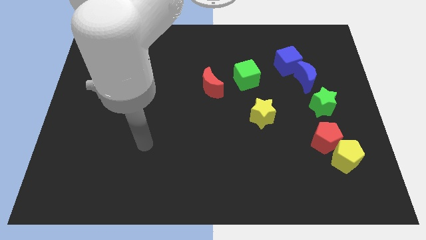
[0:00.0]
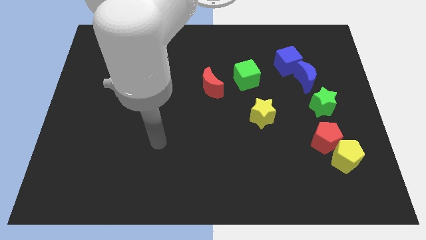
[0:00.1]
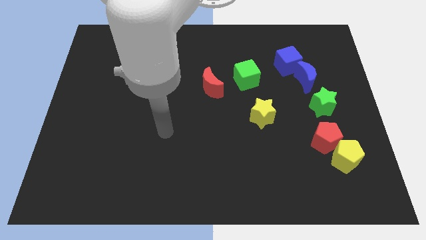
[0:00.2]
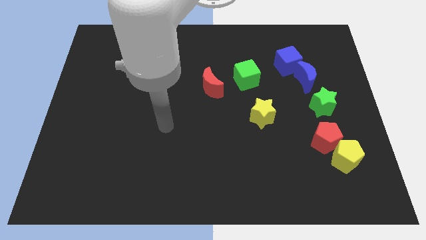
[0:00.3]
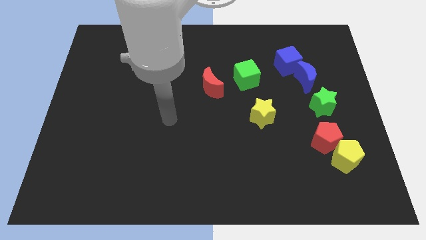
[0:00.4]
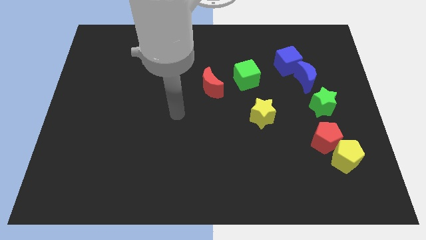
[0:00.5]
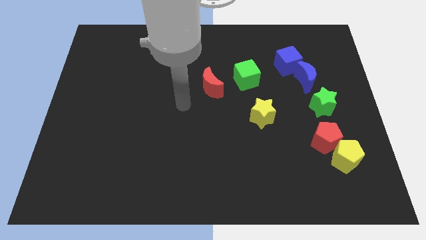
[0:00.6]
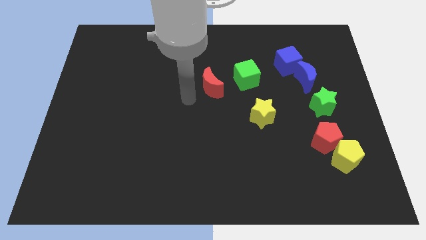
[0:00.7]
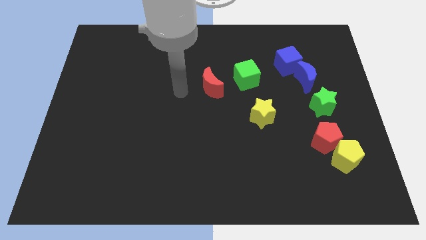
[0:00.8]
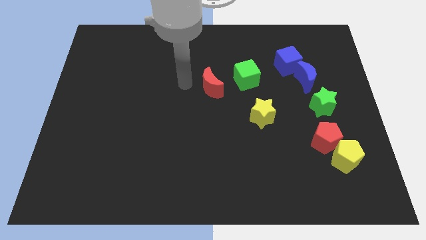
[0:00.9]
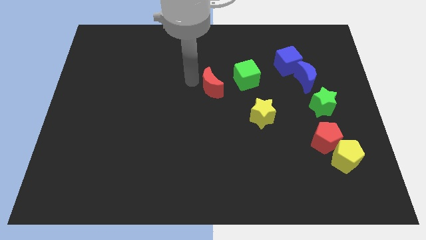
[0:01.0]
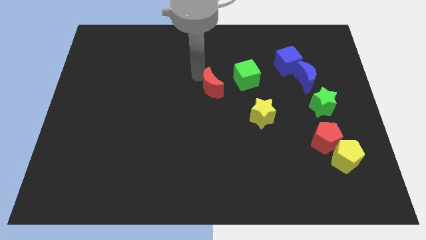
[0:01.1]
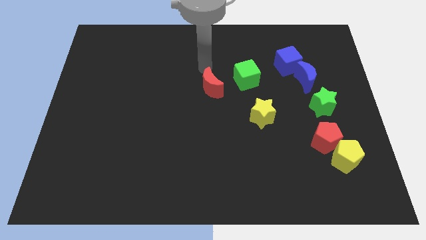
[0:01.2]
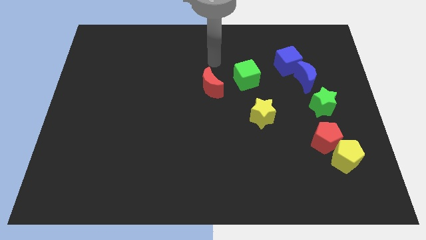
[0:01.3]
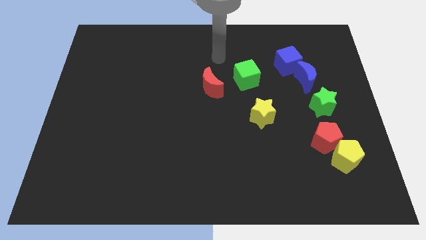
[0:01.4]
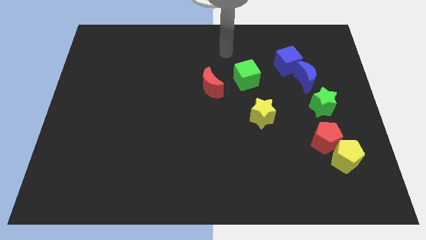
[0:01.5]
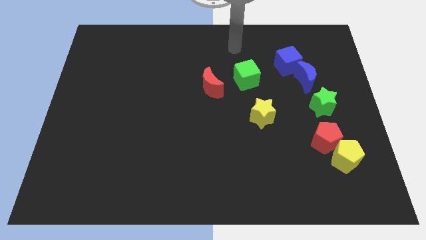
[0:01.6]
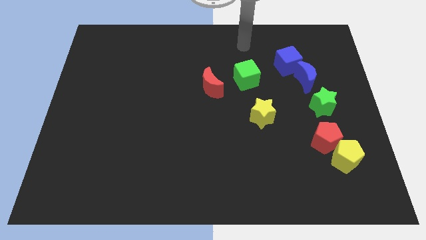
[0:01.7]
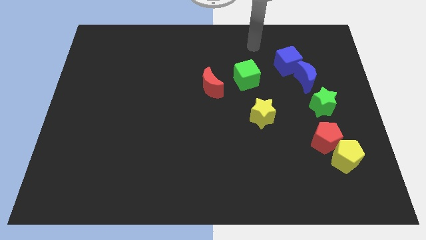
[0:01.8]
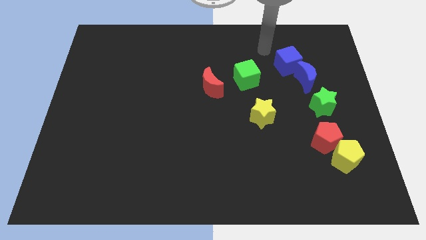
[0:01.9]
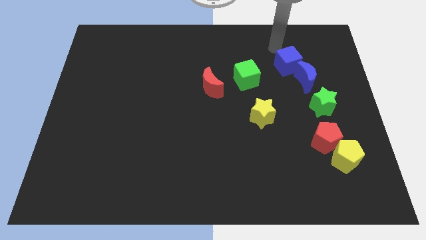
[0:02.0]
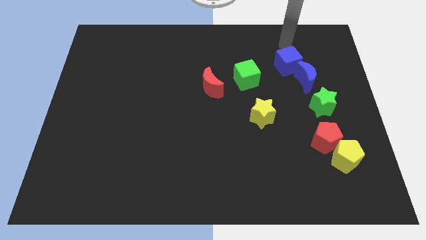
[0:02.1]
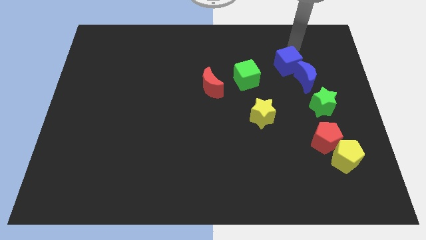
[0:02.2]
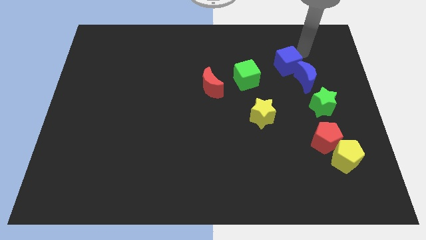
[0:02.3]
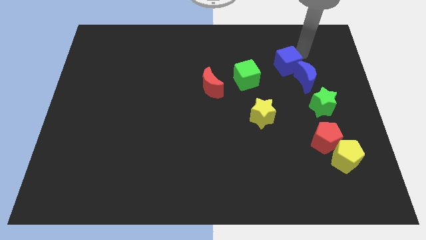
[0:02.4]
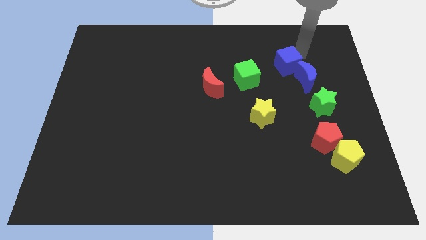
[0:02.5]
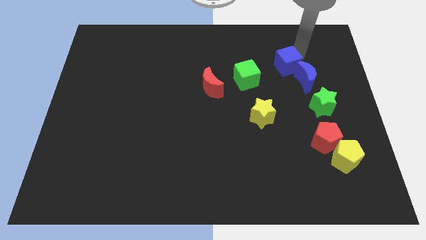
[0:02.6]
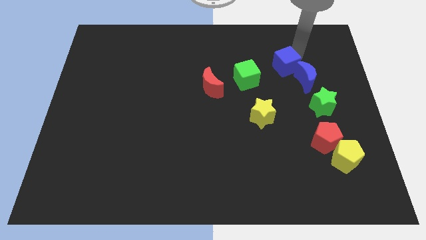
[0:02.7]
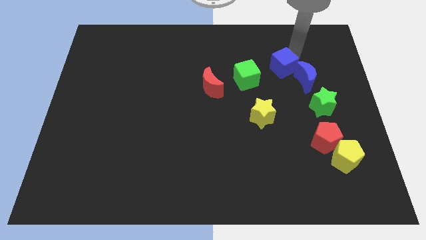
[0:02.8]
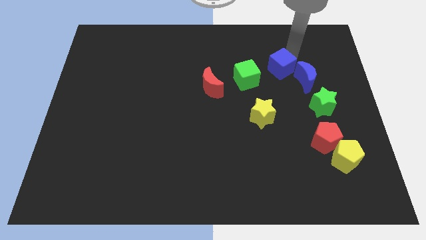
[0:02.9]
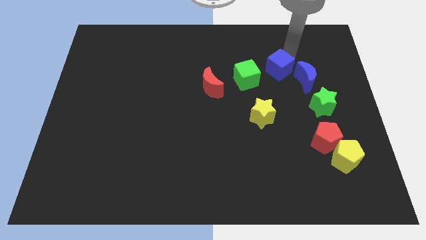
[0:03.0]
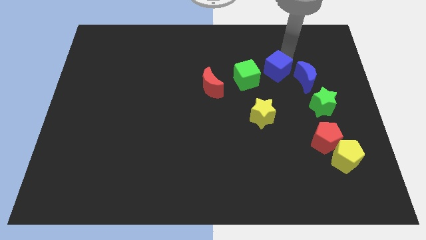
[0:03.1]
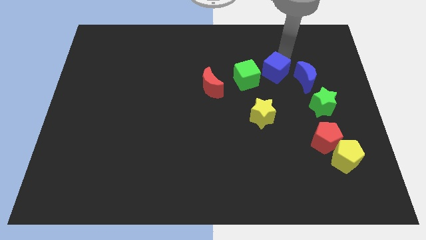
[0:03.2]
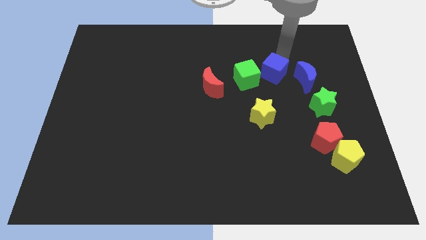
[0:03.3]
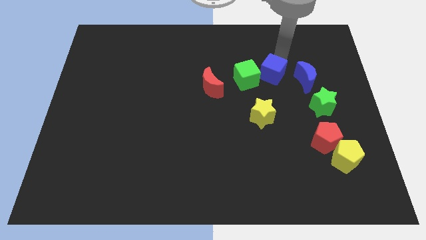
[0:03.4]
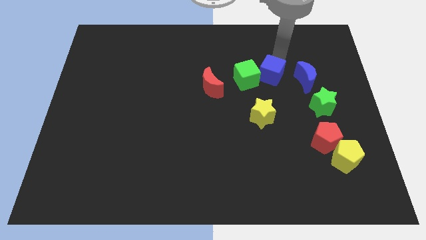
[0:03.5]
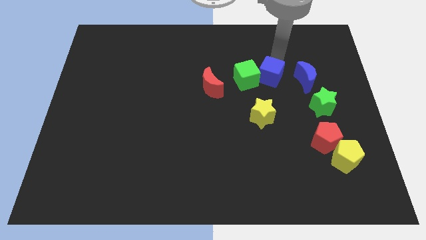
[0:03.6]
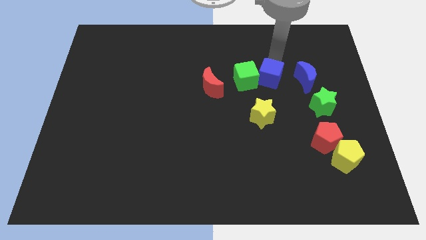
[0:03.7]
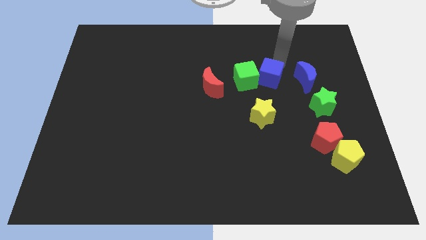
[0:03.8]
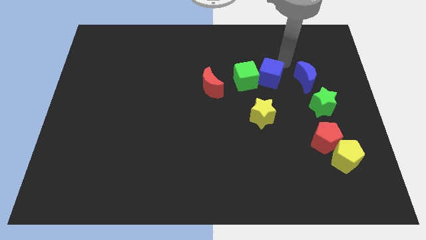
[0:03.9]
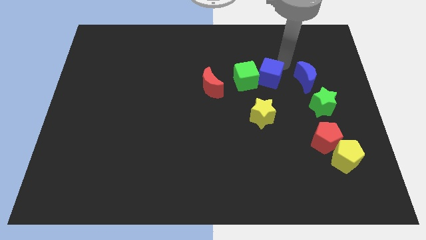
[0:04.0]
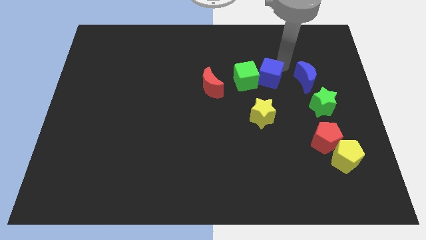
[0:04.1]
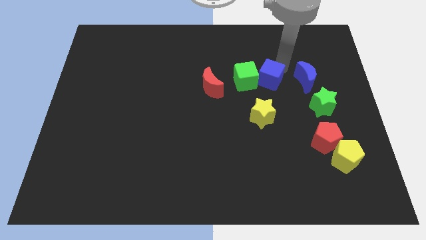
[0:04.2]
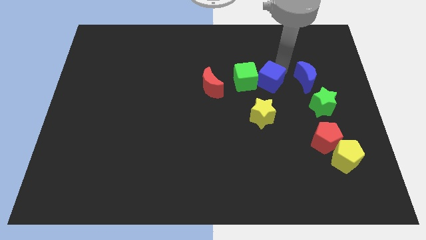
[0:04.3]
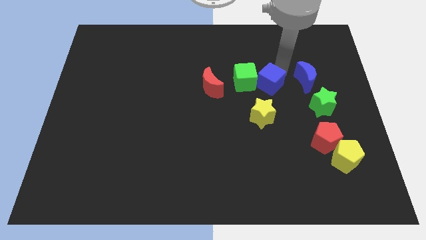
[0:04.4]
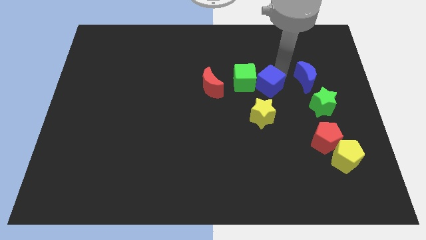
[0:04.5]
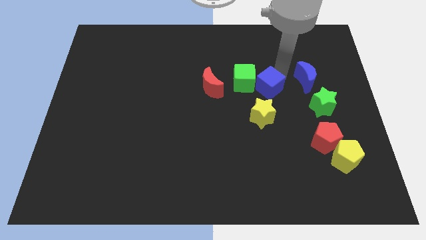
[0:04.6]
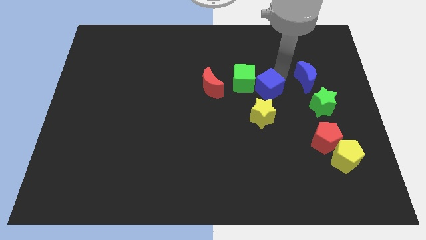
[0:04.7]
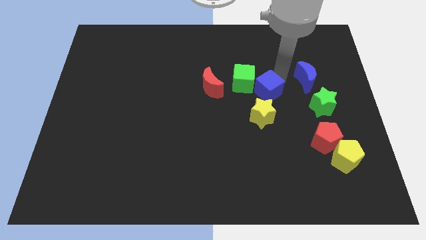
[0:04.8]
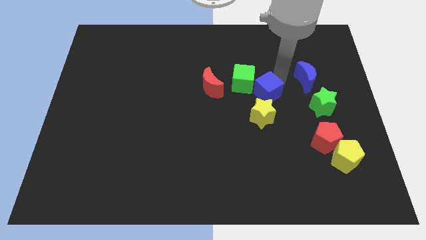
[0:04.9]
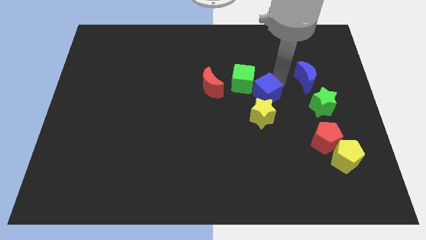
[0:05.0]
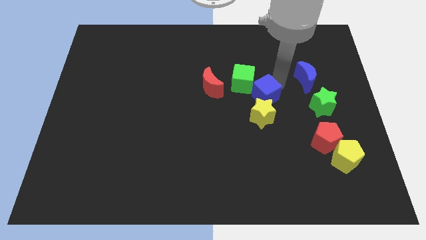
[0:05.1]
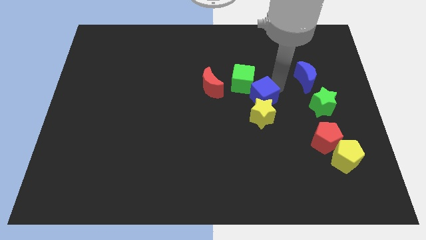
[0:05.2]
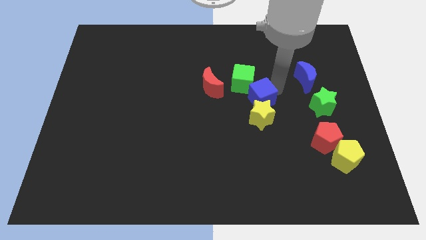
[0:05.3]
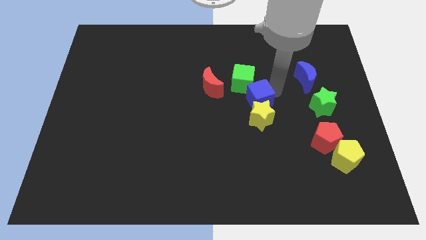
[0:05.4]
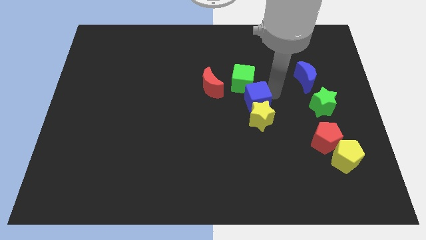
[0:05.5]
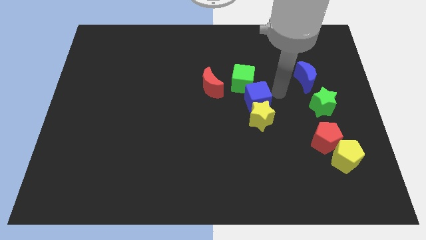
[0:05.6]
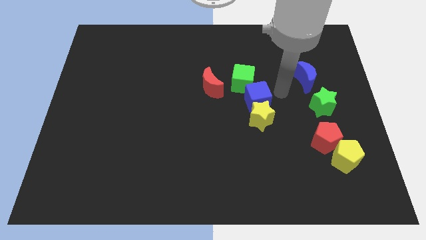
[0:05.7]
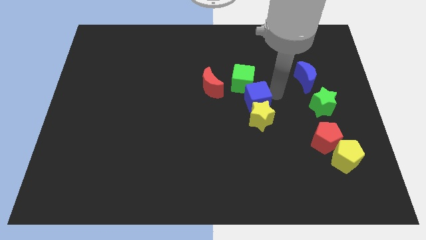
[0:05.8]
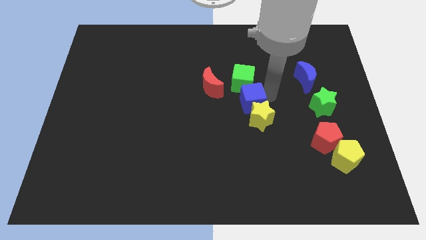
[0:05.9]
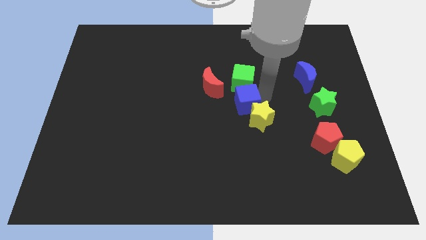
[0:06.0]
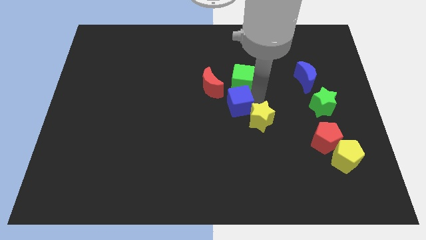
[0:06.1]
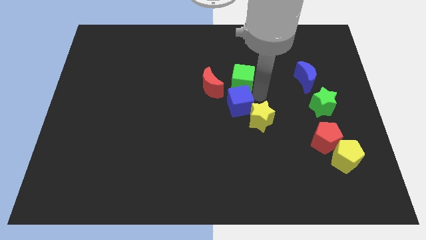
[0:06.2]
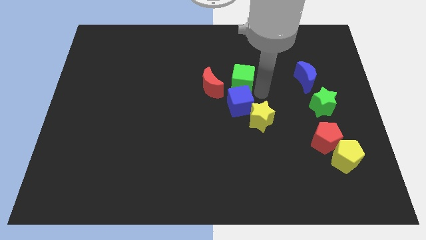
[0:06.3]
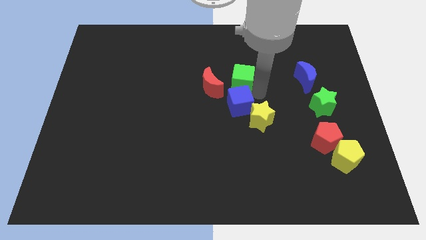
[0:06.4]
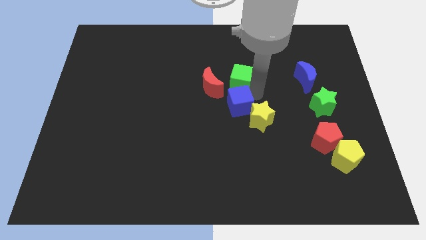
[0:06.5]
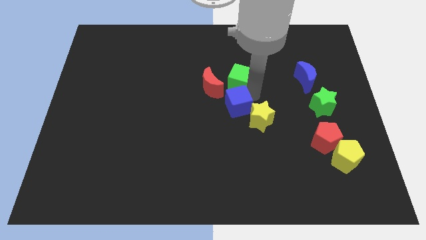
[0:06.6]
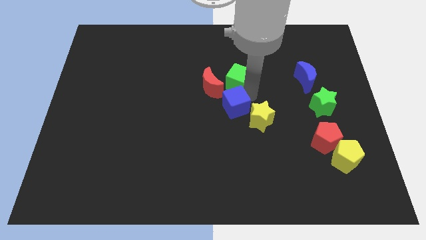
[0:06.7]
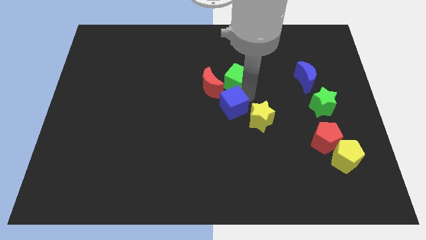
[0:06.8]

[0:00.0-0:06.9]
push the blue cube diagonally downwards and left

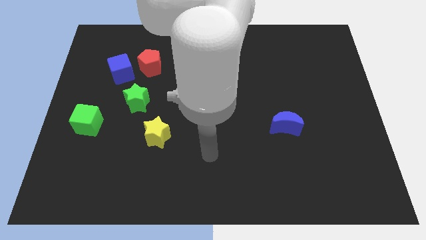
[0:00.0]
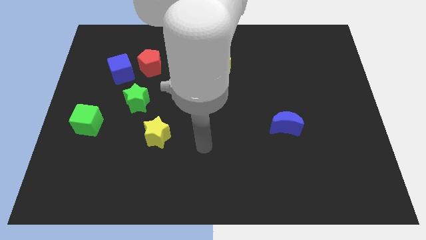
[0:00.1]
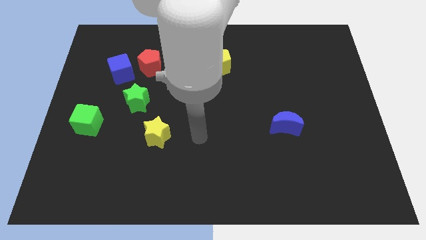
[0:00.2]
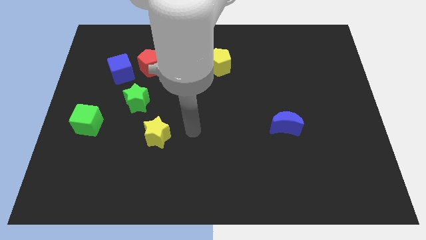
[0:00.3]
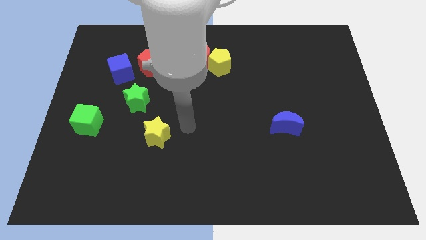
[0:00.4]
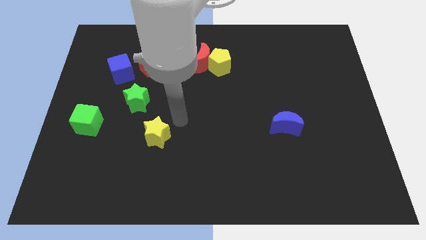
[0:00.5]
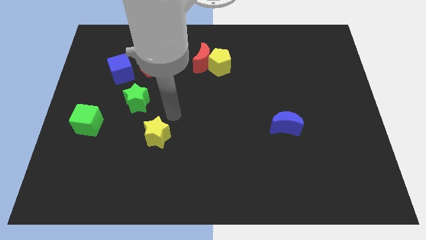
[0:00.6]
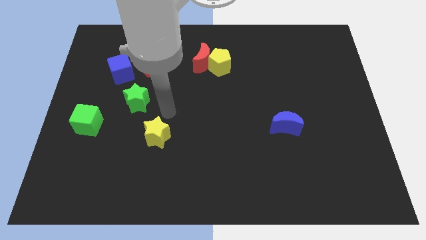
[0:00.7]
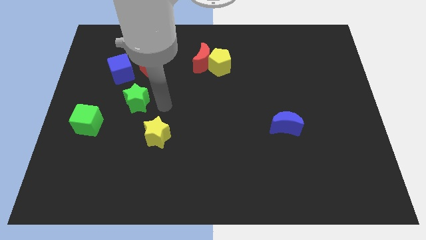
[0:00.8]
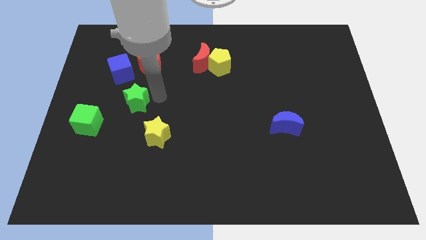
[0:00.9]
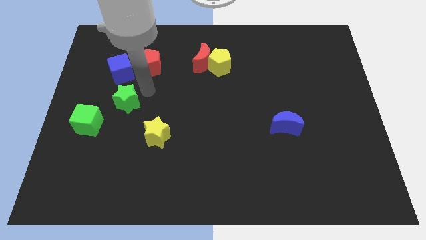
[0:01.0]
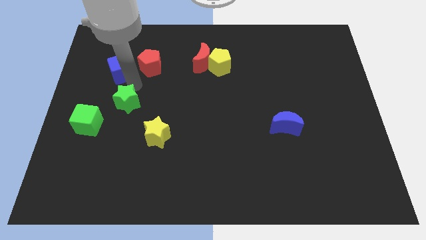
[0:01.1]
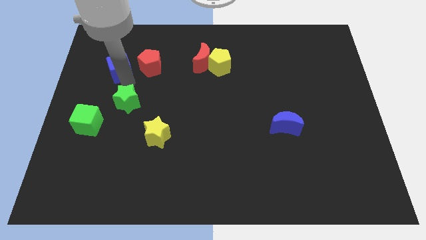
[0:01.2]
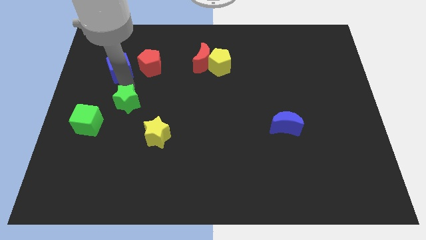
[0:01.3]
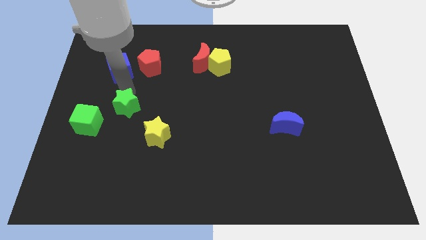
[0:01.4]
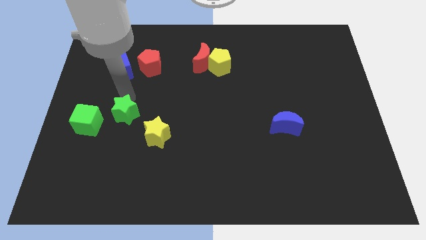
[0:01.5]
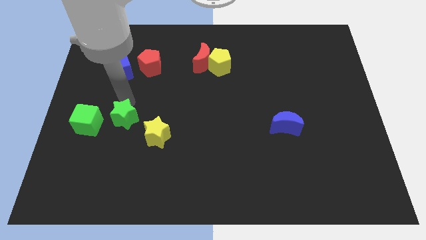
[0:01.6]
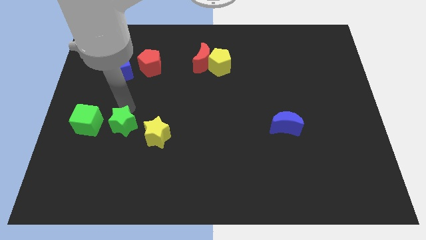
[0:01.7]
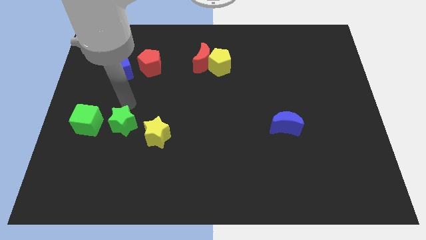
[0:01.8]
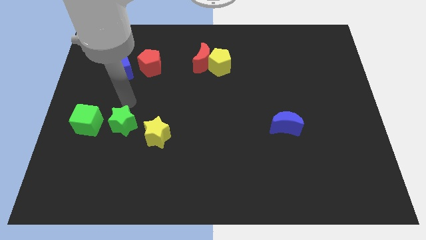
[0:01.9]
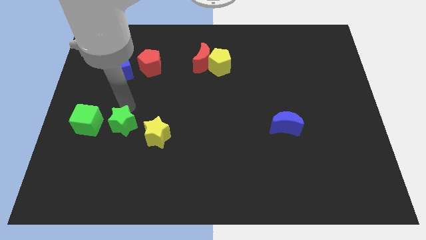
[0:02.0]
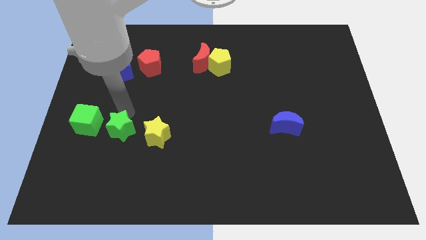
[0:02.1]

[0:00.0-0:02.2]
move the green star a bit down
